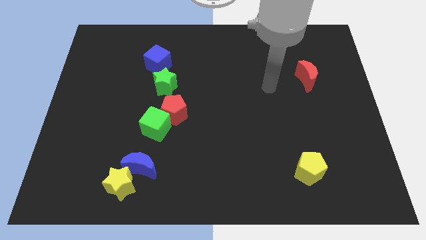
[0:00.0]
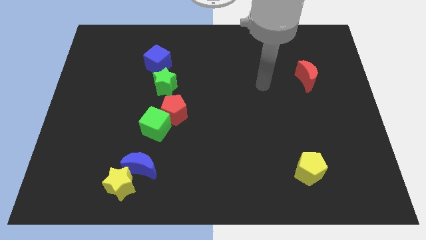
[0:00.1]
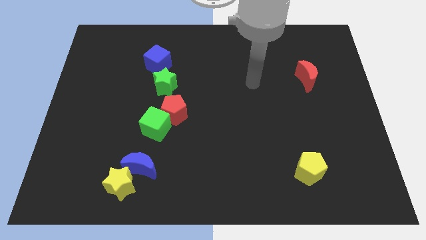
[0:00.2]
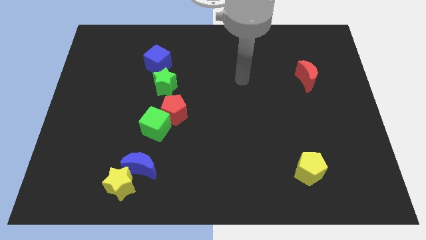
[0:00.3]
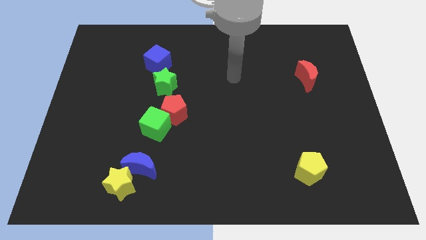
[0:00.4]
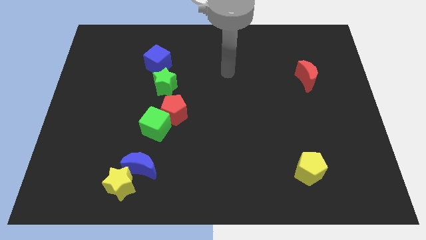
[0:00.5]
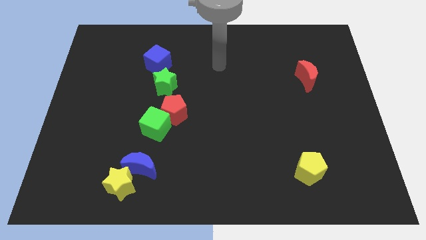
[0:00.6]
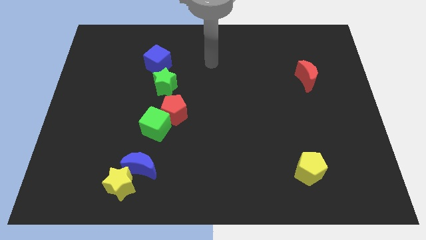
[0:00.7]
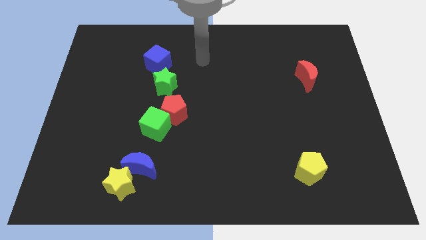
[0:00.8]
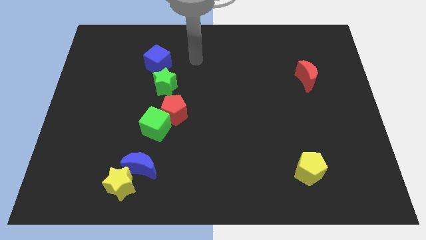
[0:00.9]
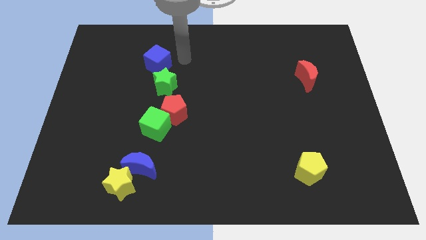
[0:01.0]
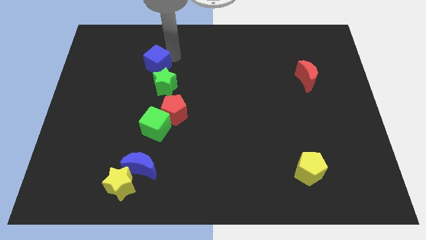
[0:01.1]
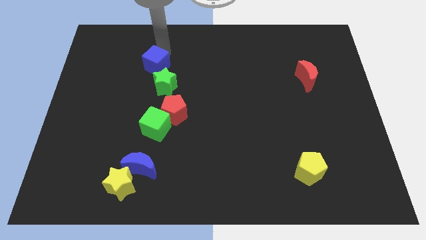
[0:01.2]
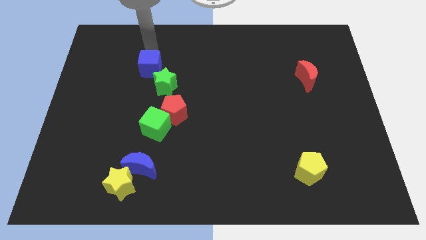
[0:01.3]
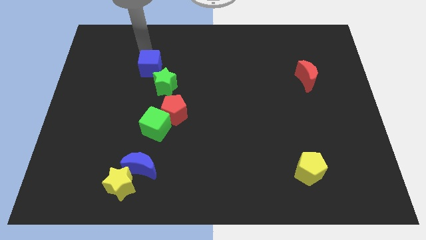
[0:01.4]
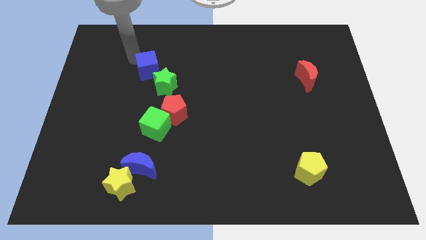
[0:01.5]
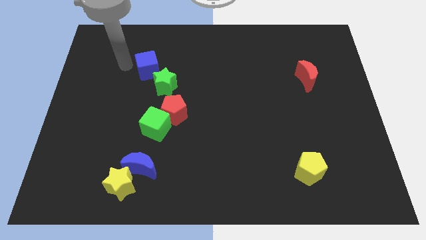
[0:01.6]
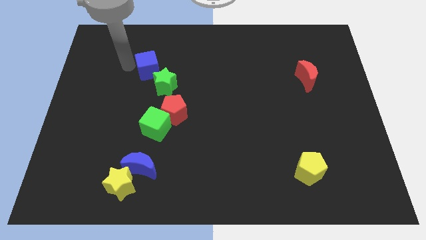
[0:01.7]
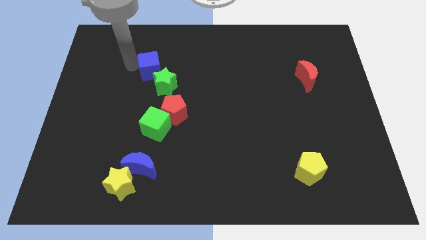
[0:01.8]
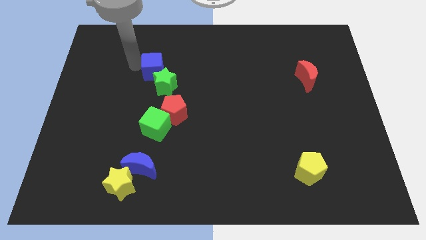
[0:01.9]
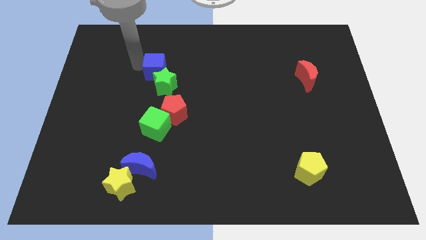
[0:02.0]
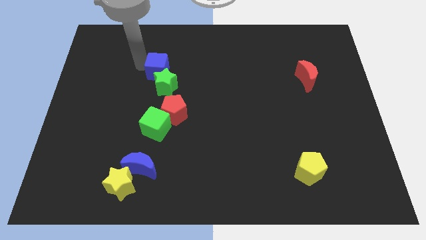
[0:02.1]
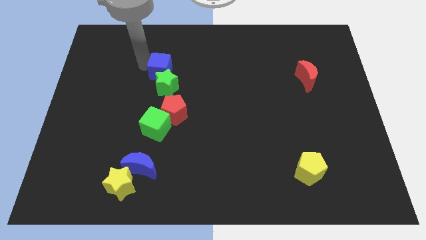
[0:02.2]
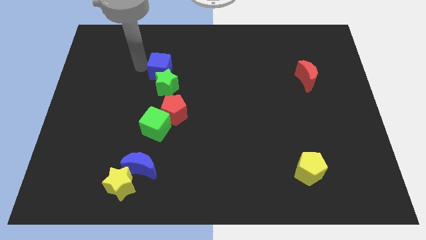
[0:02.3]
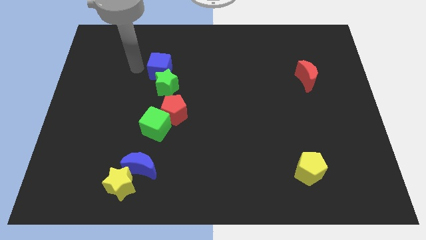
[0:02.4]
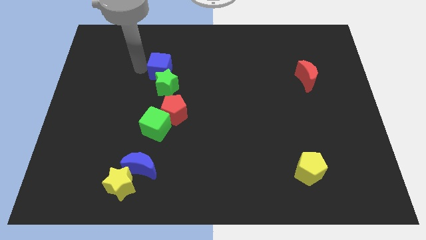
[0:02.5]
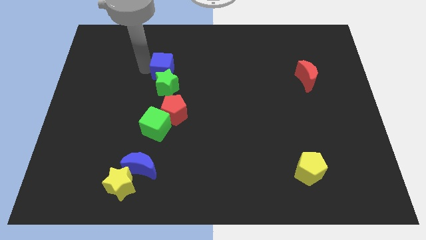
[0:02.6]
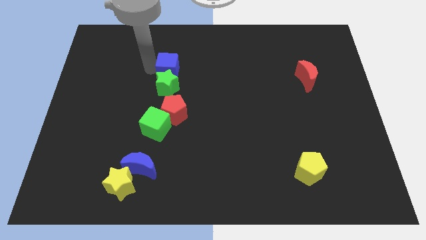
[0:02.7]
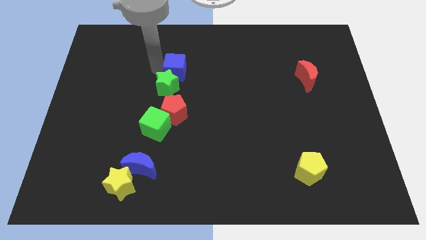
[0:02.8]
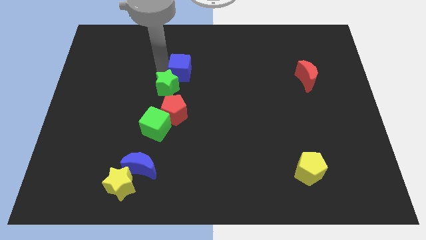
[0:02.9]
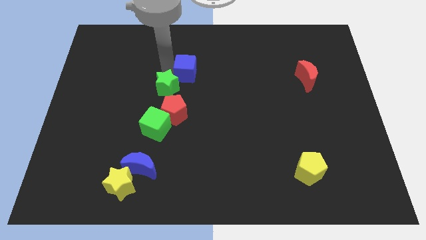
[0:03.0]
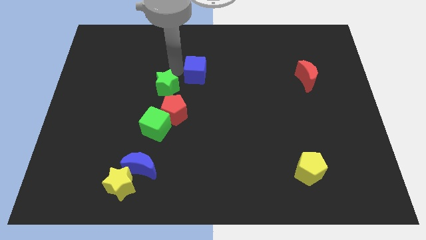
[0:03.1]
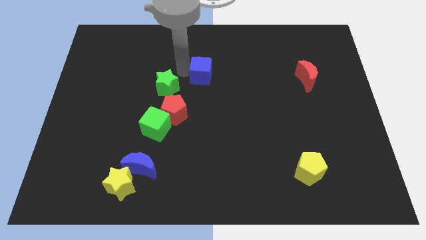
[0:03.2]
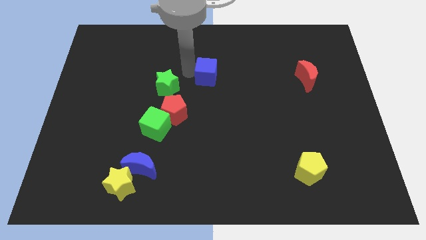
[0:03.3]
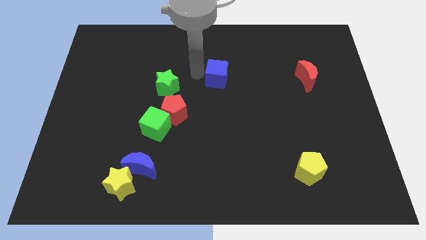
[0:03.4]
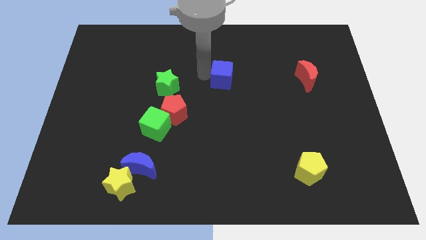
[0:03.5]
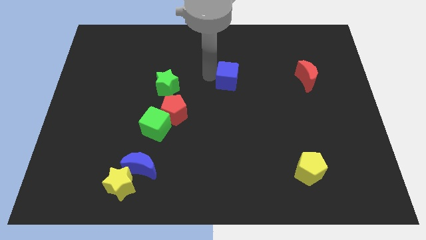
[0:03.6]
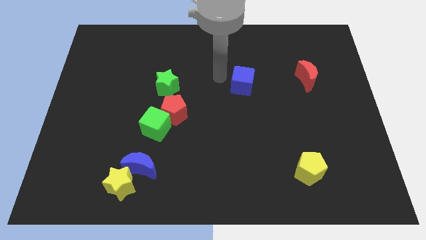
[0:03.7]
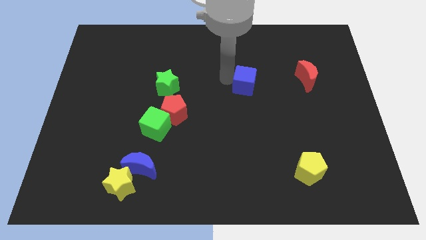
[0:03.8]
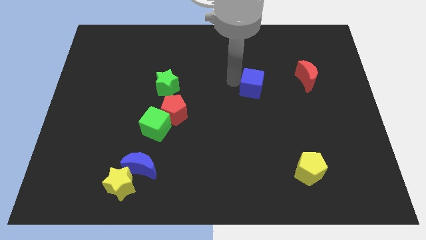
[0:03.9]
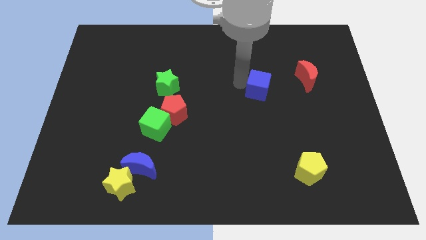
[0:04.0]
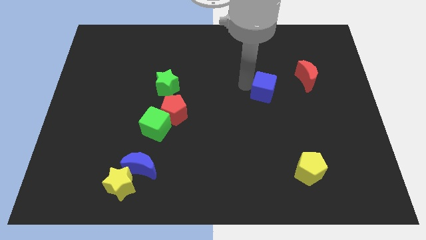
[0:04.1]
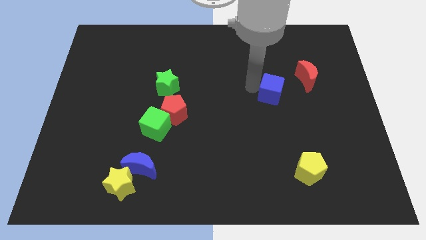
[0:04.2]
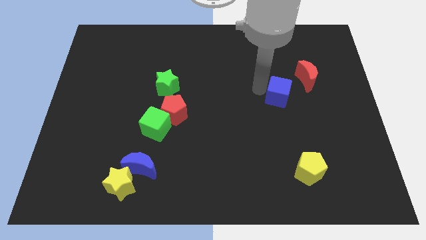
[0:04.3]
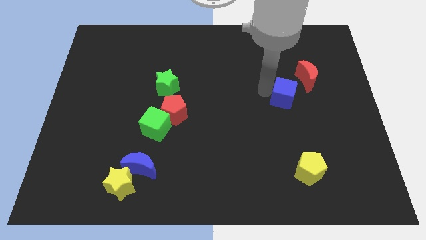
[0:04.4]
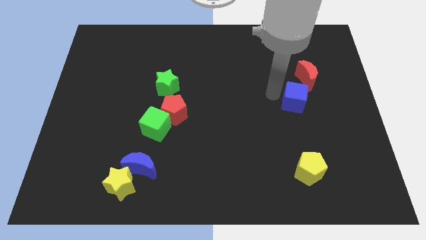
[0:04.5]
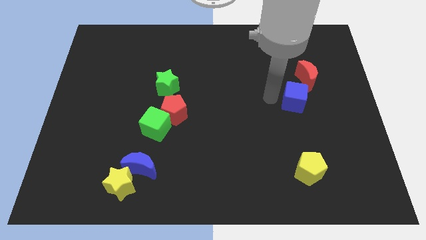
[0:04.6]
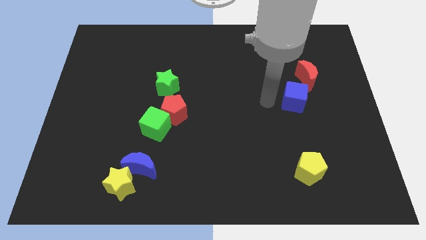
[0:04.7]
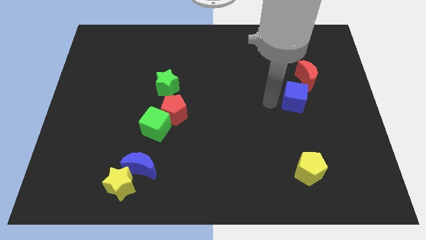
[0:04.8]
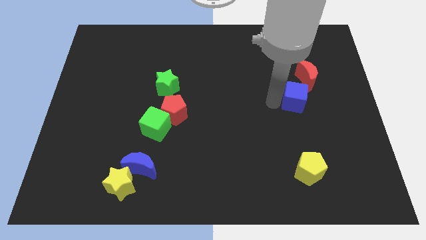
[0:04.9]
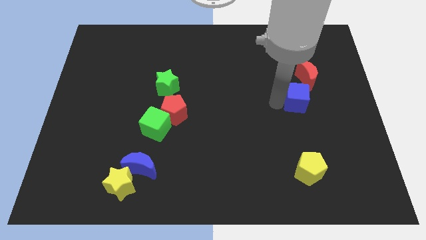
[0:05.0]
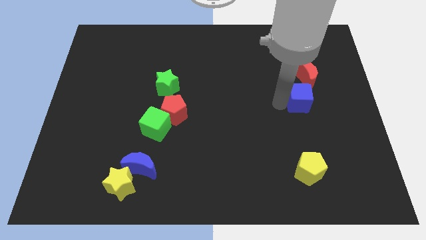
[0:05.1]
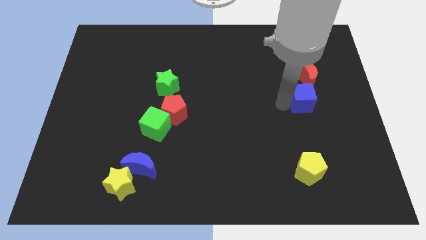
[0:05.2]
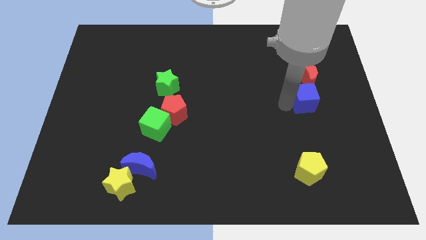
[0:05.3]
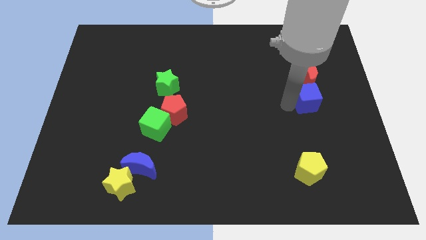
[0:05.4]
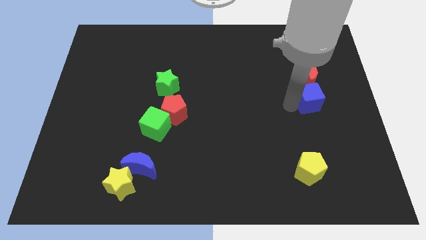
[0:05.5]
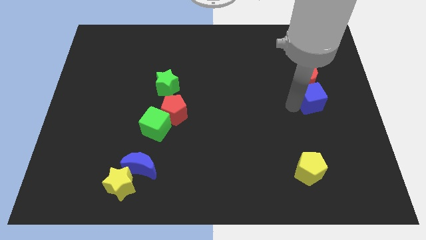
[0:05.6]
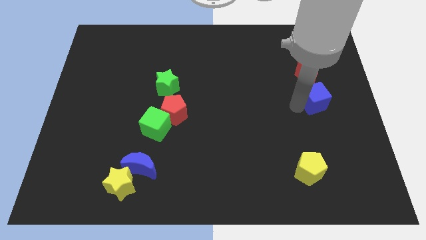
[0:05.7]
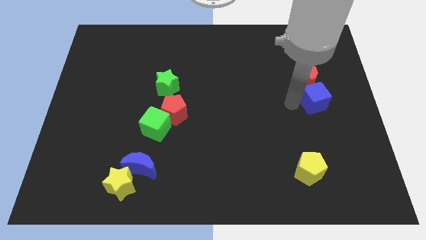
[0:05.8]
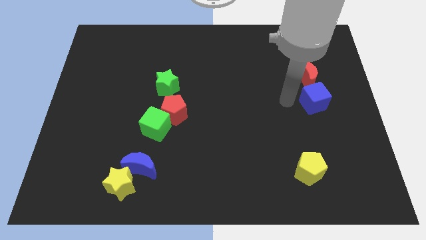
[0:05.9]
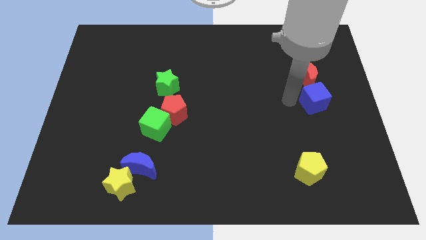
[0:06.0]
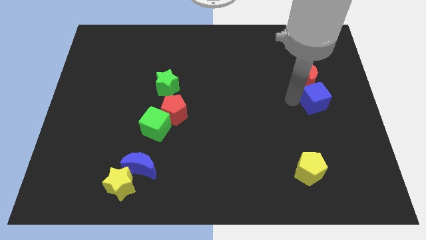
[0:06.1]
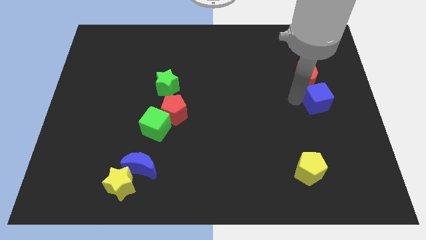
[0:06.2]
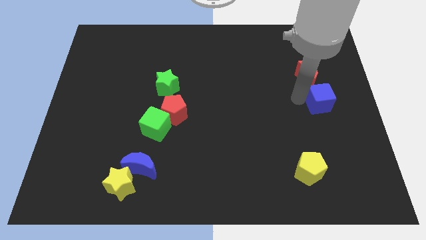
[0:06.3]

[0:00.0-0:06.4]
put the blue cube to the right side
